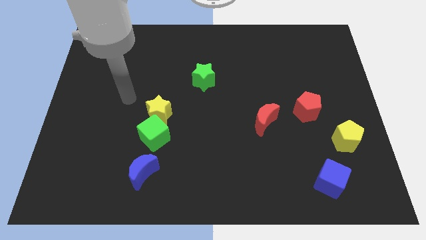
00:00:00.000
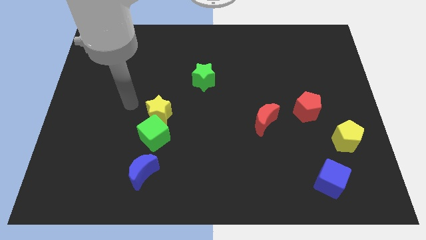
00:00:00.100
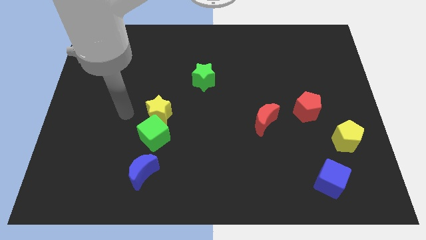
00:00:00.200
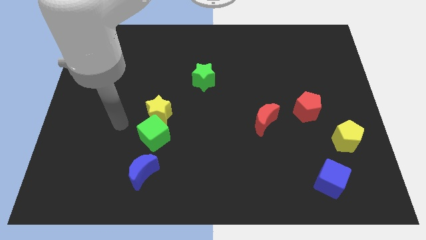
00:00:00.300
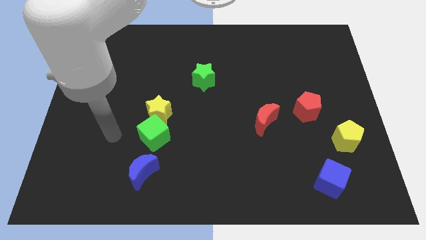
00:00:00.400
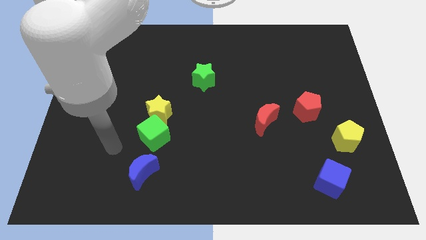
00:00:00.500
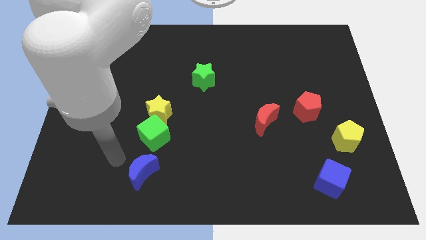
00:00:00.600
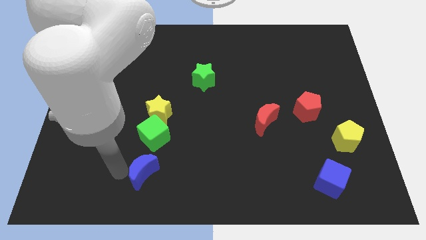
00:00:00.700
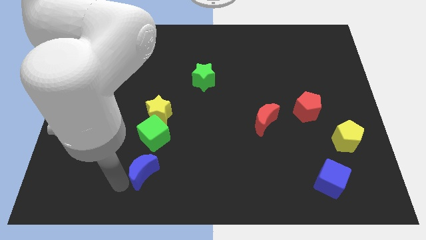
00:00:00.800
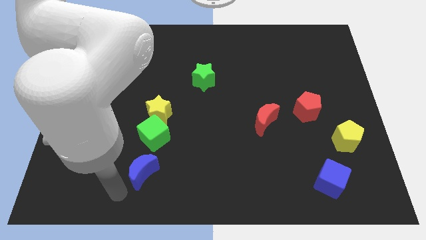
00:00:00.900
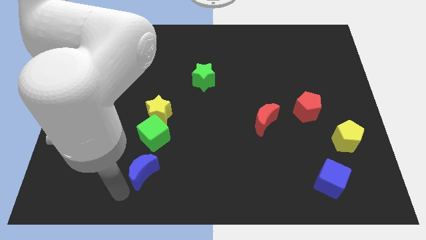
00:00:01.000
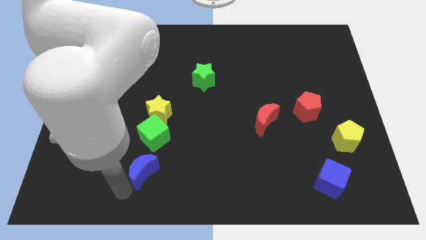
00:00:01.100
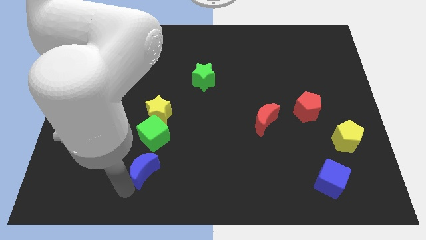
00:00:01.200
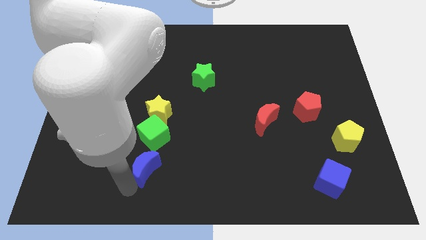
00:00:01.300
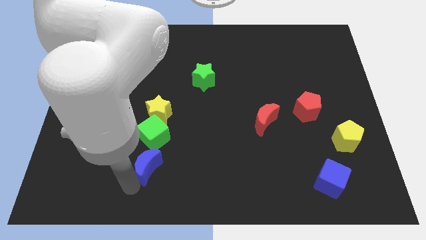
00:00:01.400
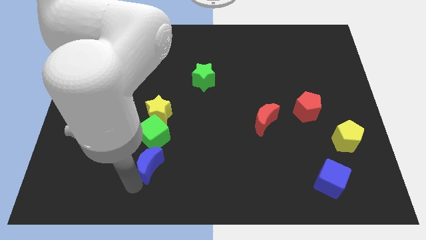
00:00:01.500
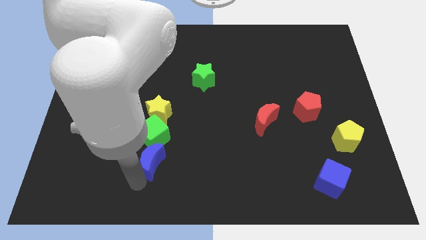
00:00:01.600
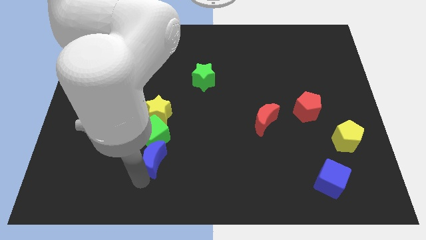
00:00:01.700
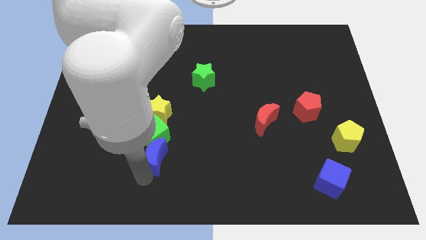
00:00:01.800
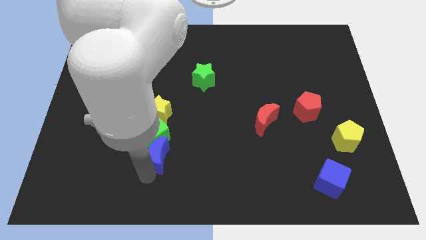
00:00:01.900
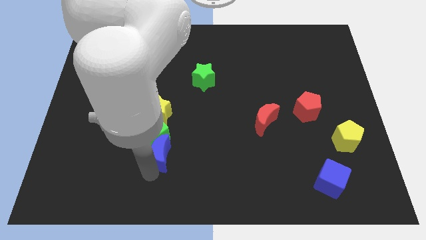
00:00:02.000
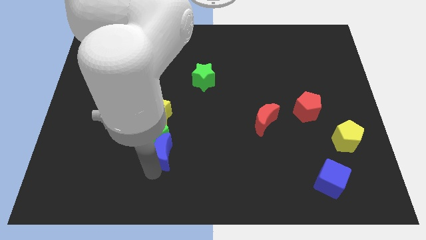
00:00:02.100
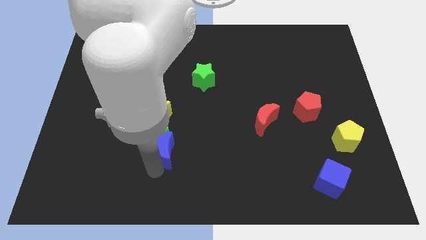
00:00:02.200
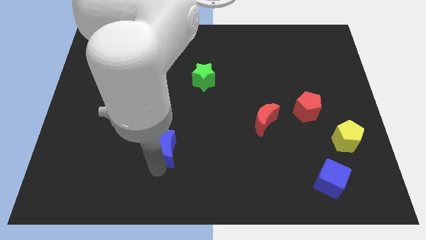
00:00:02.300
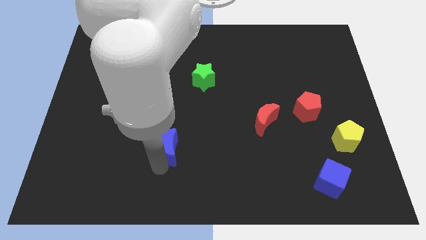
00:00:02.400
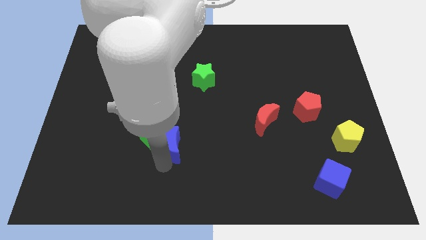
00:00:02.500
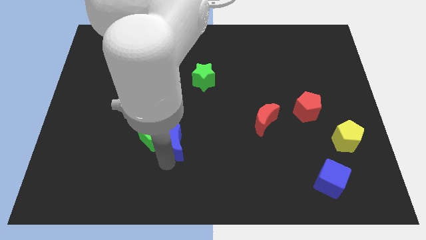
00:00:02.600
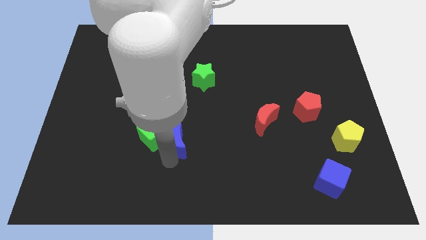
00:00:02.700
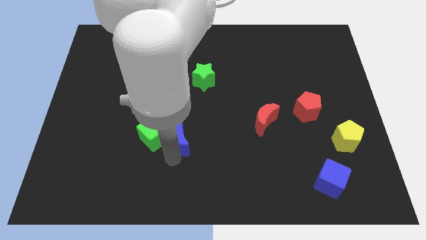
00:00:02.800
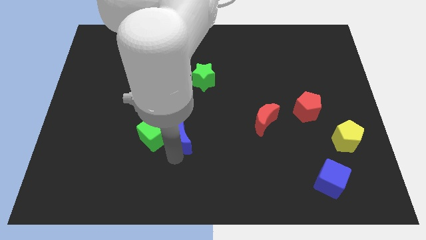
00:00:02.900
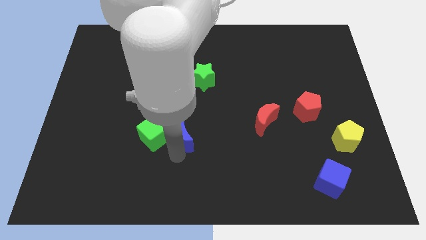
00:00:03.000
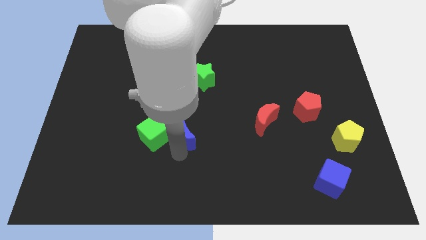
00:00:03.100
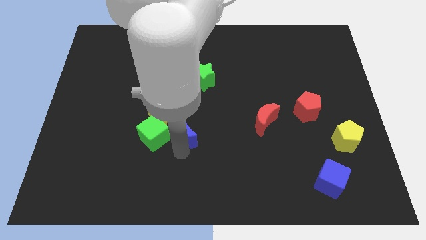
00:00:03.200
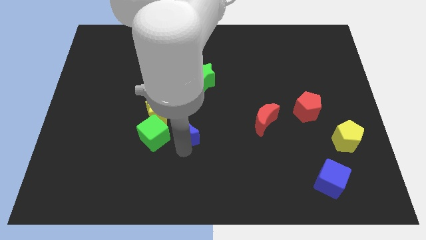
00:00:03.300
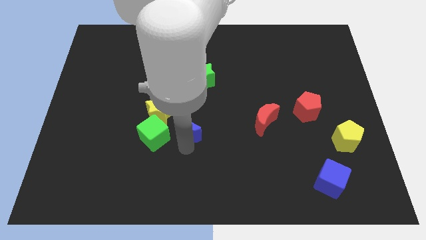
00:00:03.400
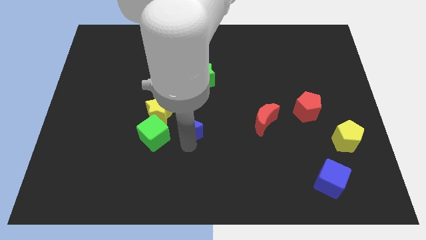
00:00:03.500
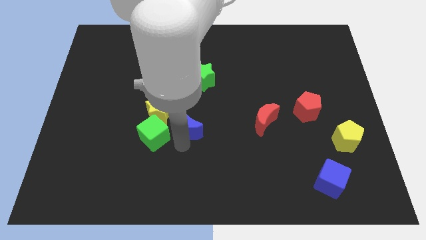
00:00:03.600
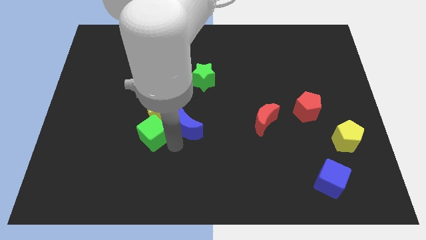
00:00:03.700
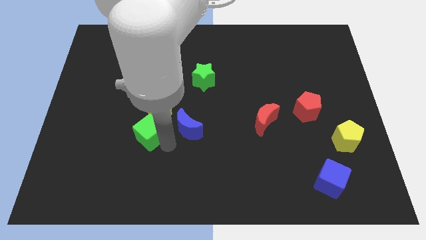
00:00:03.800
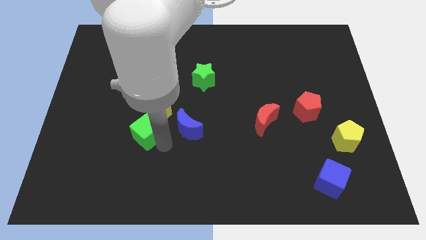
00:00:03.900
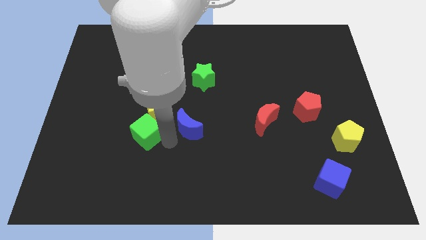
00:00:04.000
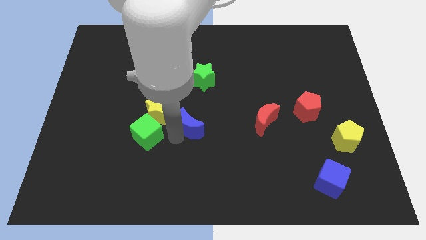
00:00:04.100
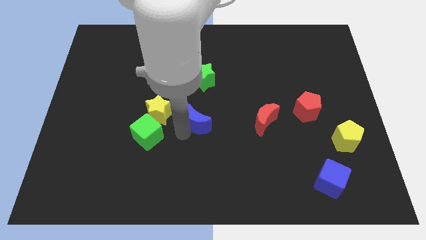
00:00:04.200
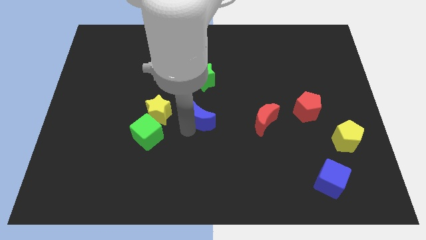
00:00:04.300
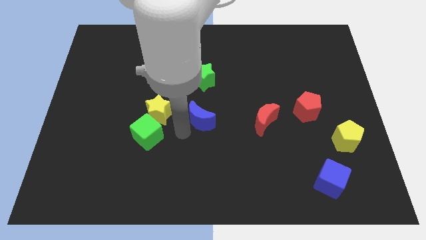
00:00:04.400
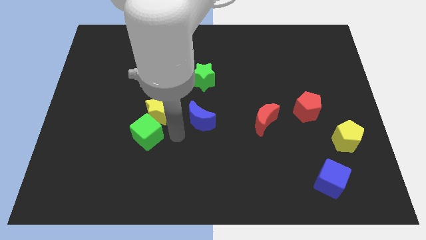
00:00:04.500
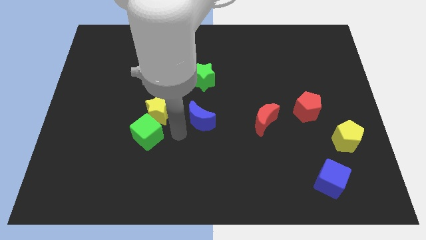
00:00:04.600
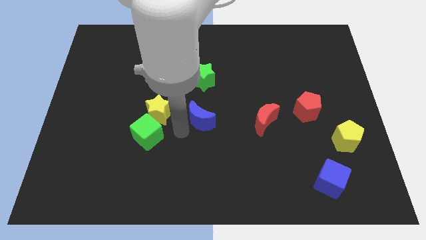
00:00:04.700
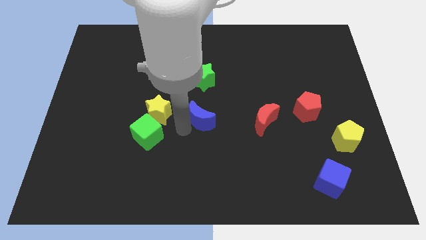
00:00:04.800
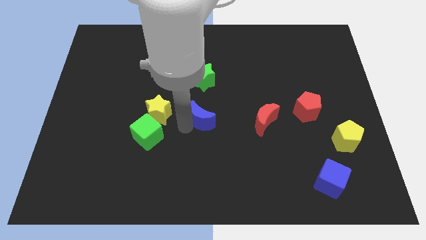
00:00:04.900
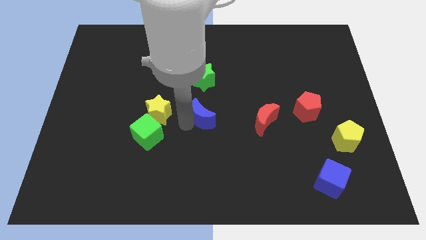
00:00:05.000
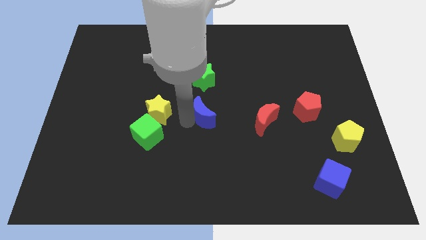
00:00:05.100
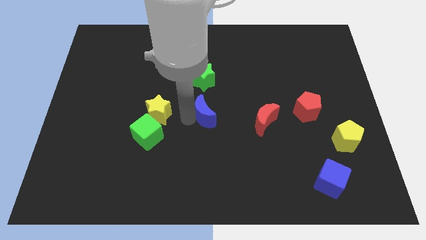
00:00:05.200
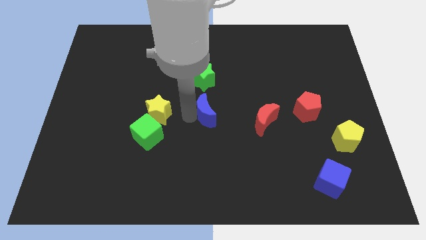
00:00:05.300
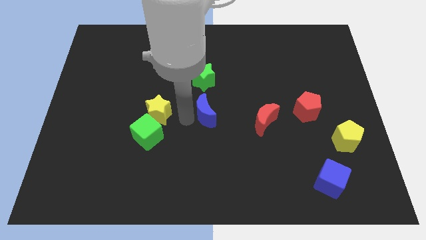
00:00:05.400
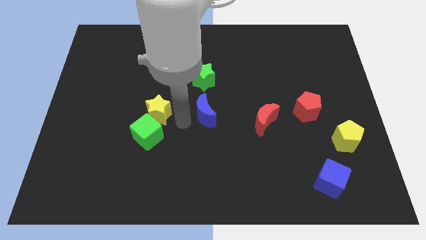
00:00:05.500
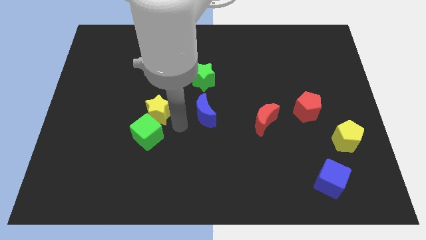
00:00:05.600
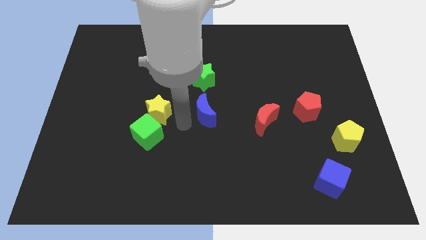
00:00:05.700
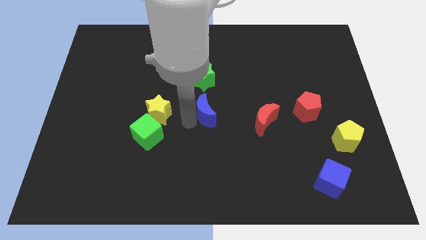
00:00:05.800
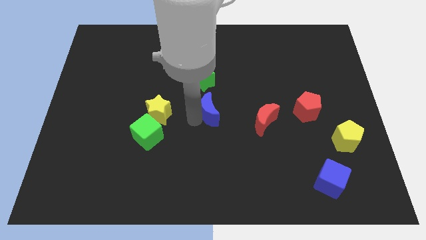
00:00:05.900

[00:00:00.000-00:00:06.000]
move the blue moon up and to the right

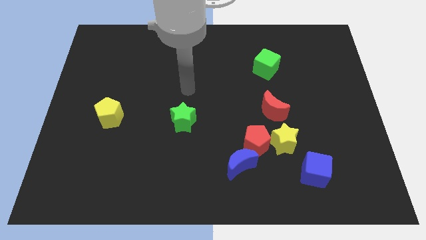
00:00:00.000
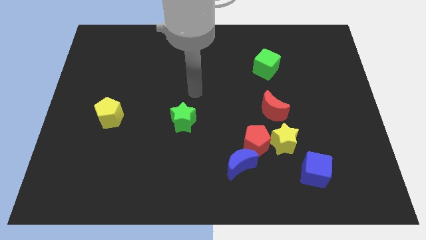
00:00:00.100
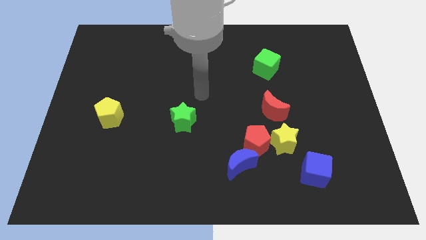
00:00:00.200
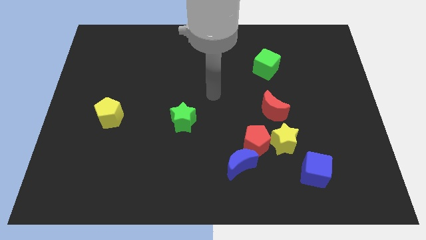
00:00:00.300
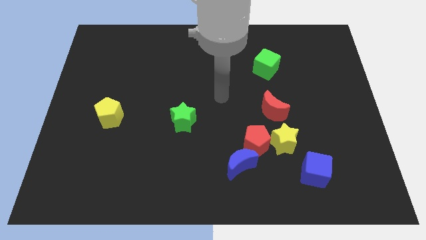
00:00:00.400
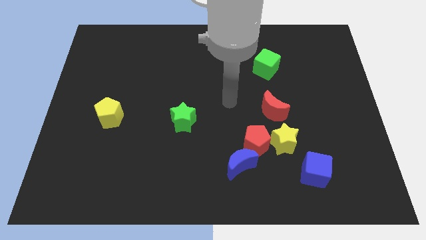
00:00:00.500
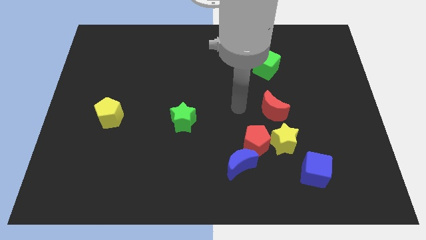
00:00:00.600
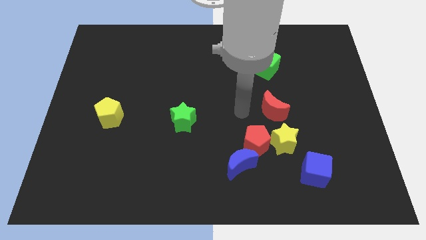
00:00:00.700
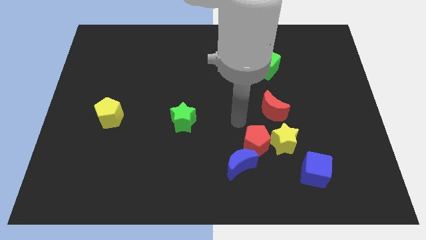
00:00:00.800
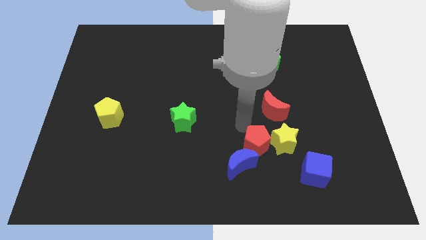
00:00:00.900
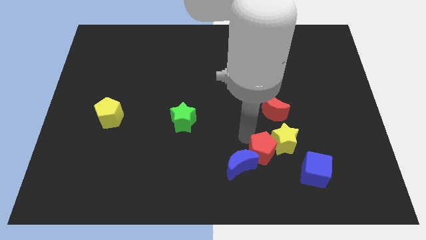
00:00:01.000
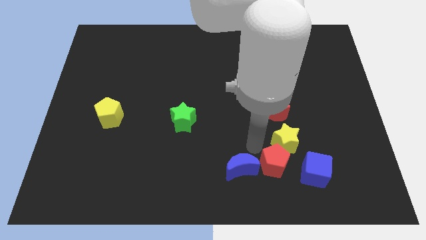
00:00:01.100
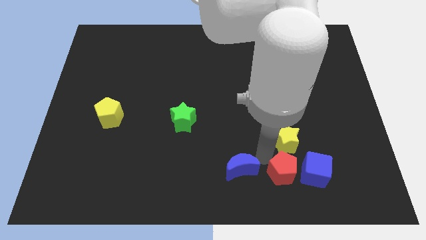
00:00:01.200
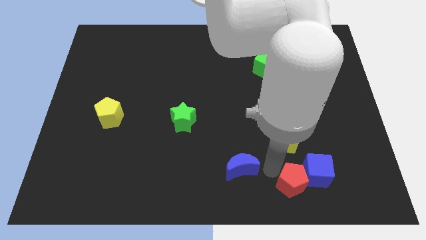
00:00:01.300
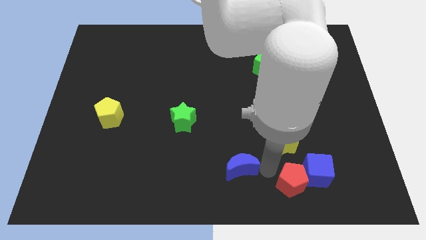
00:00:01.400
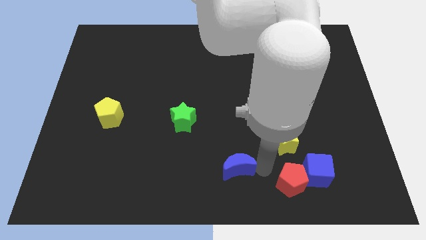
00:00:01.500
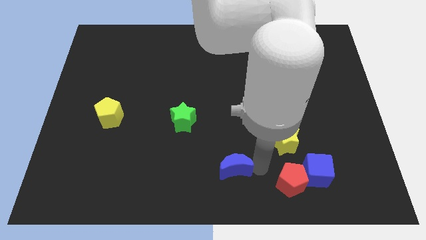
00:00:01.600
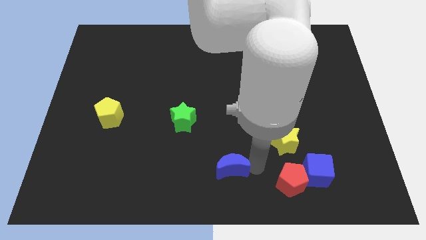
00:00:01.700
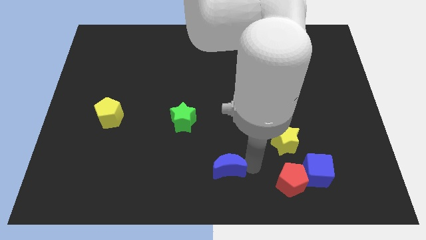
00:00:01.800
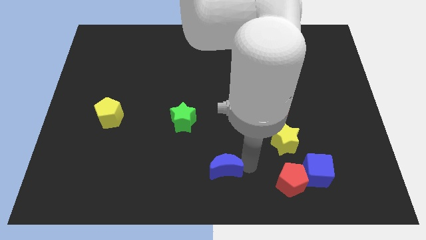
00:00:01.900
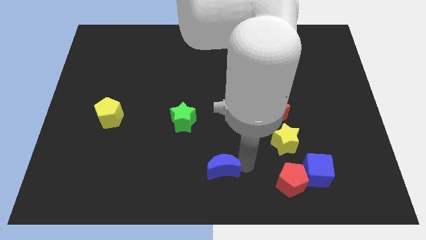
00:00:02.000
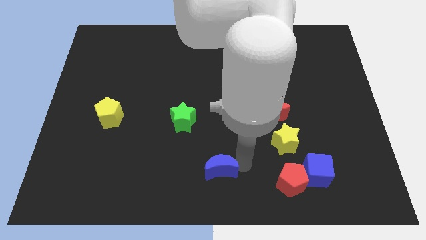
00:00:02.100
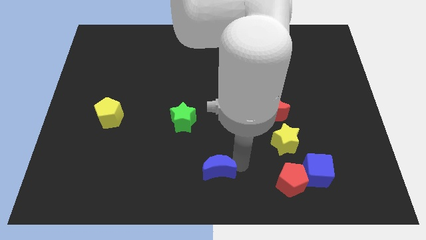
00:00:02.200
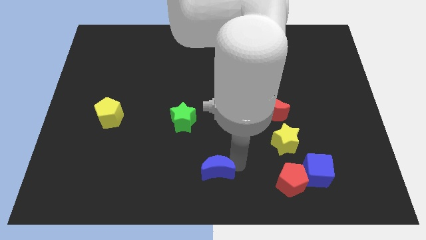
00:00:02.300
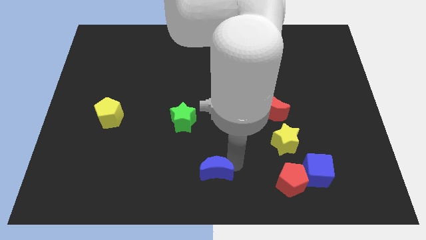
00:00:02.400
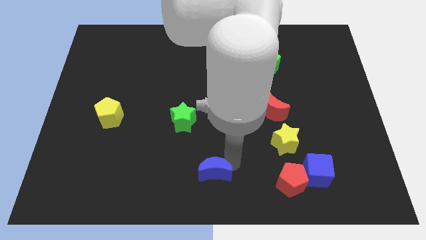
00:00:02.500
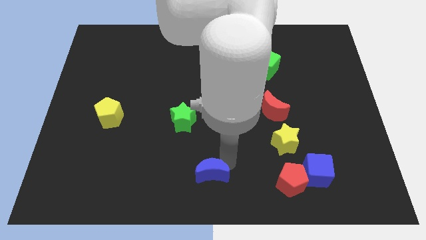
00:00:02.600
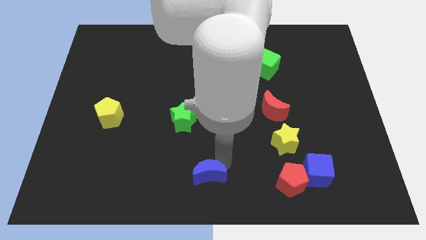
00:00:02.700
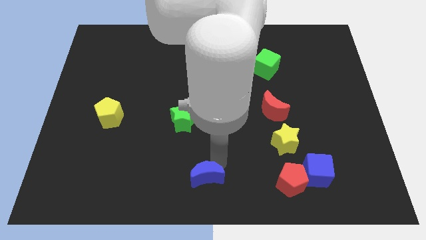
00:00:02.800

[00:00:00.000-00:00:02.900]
push the blue moon left slightly
